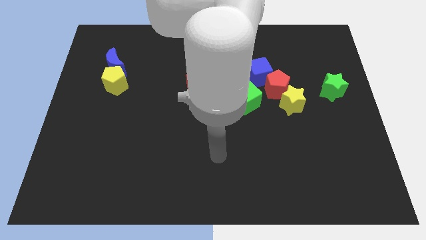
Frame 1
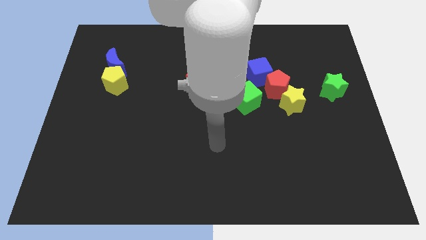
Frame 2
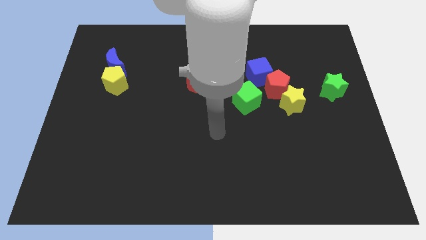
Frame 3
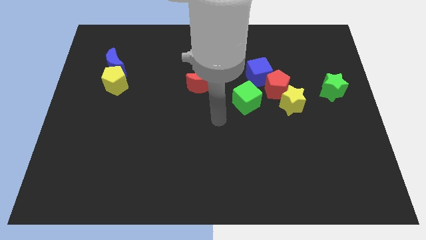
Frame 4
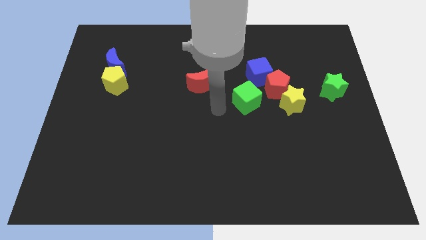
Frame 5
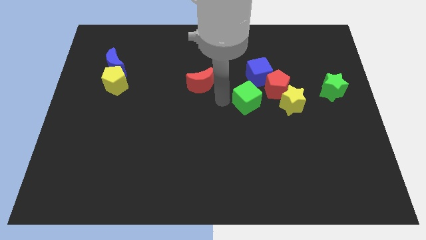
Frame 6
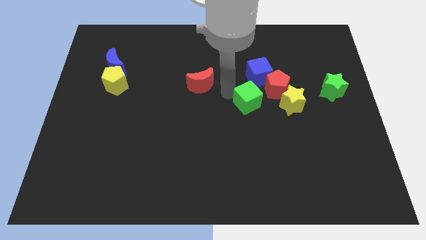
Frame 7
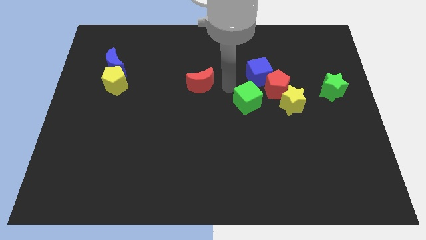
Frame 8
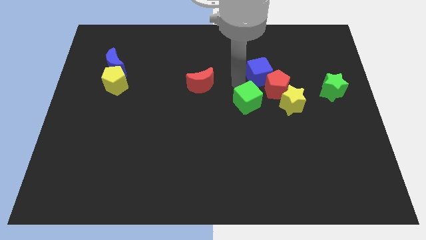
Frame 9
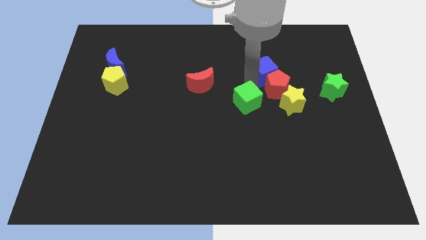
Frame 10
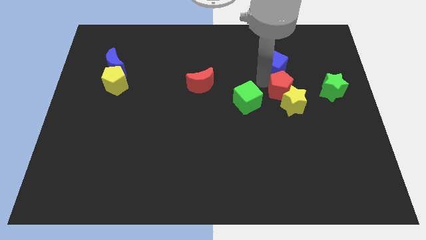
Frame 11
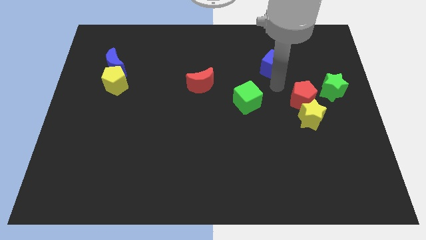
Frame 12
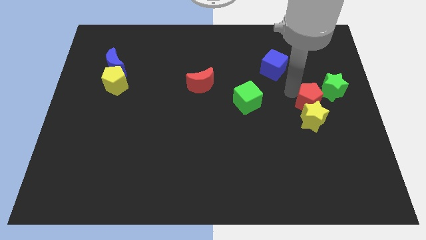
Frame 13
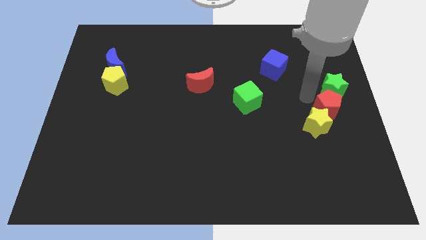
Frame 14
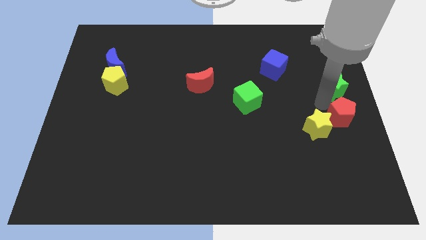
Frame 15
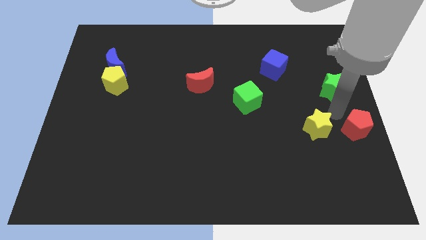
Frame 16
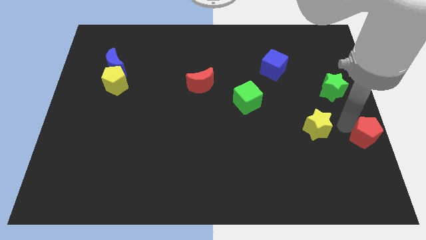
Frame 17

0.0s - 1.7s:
separate the yellow star from the red pentagon

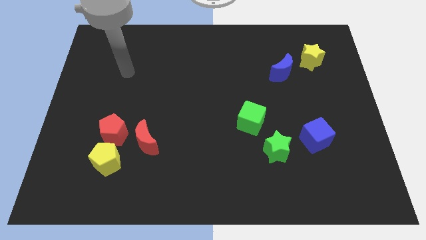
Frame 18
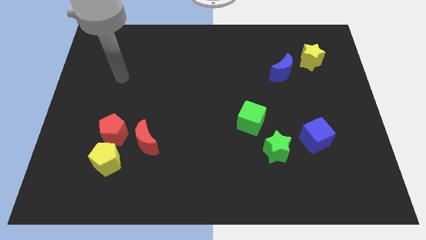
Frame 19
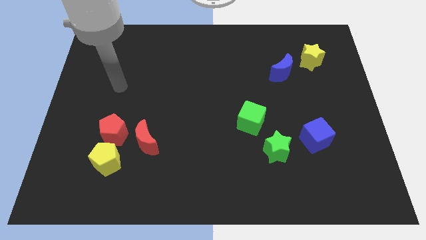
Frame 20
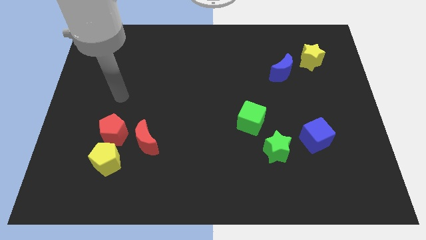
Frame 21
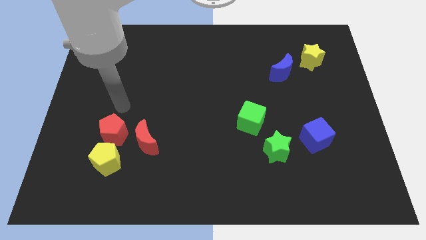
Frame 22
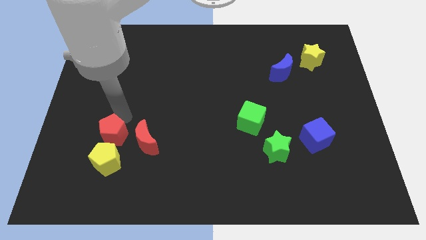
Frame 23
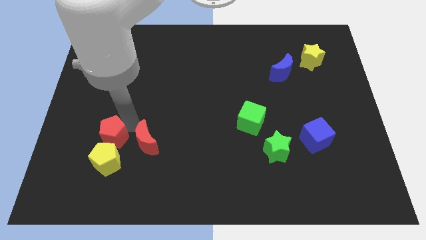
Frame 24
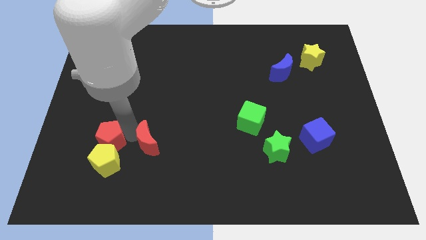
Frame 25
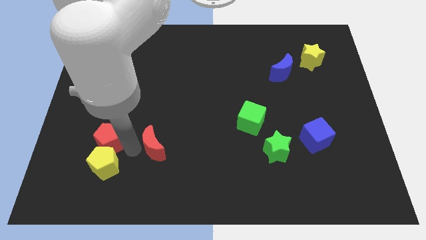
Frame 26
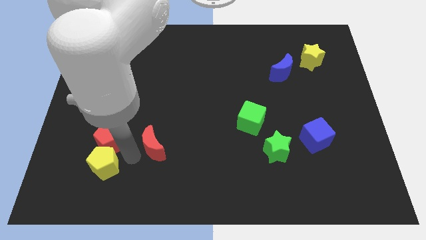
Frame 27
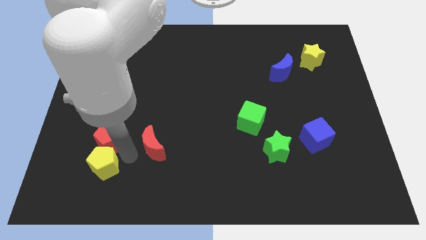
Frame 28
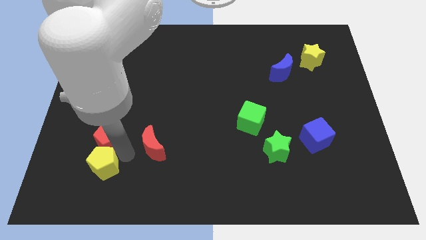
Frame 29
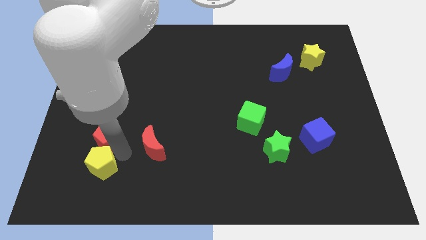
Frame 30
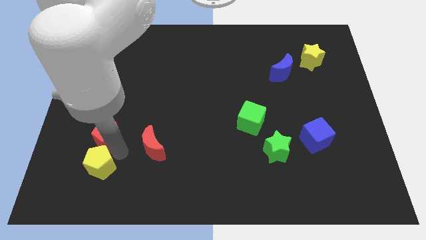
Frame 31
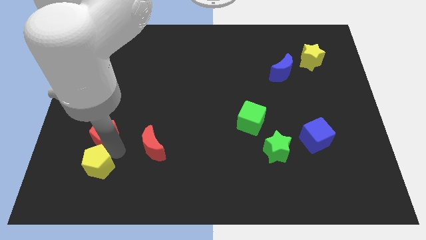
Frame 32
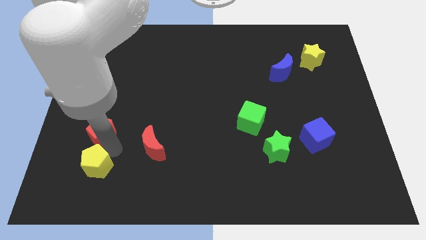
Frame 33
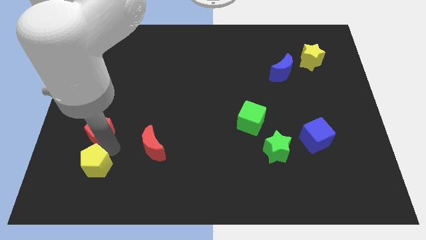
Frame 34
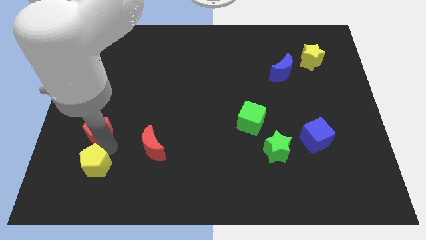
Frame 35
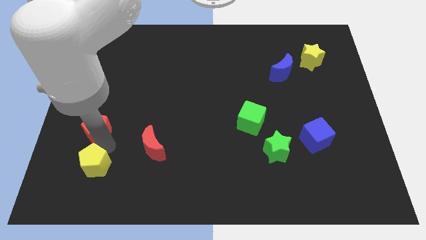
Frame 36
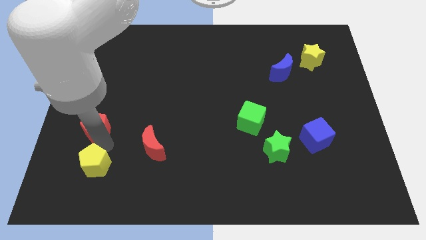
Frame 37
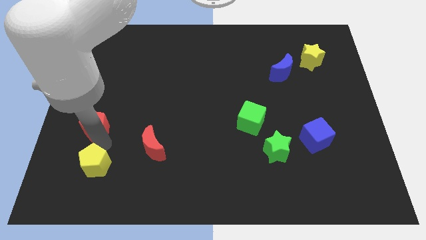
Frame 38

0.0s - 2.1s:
move the red pentagon away from the yellow pentagon and red moon

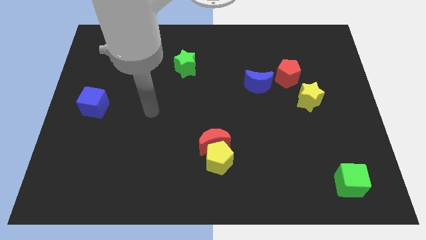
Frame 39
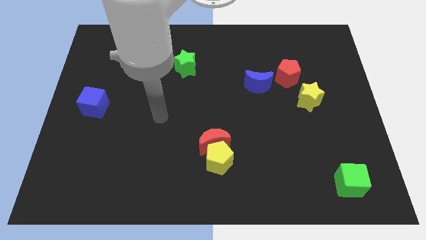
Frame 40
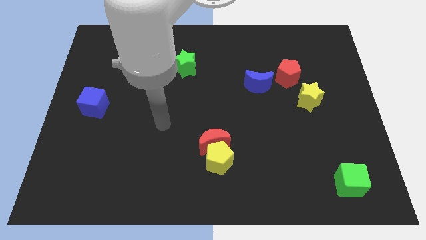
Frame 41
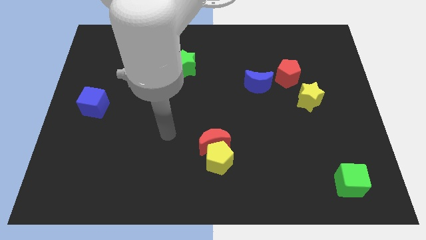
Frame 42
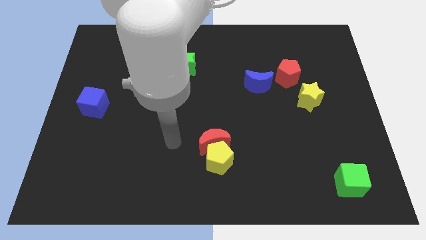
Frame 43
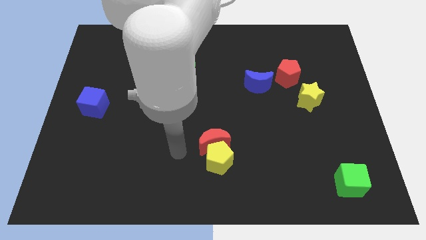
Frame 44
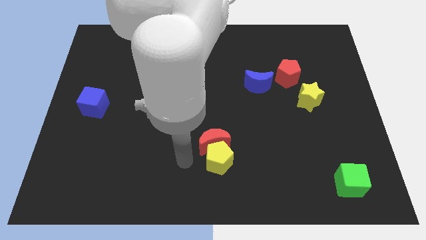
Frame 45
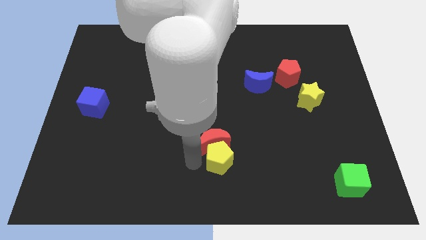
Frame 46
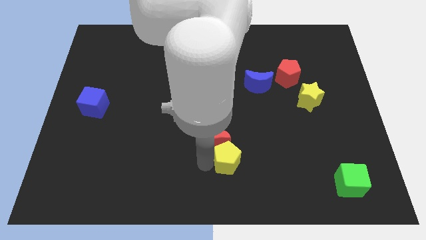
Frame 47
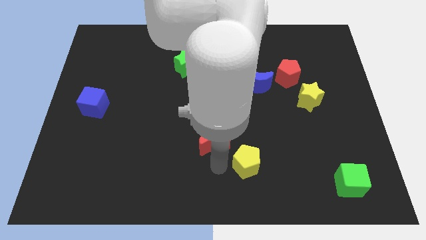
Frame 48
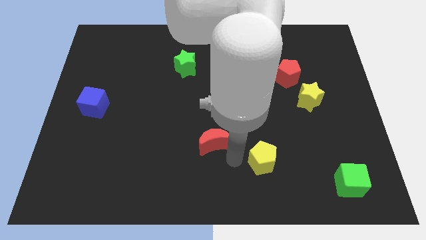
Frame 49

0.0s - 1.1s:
separate the red moon from the yellow pentagon

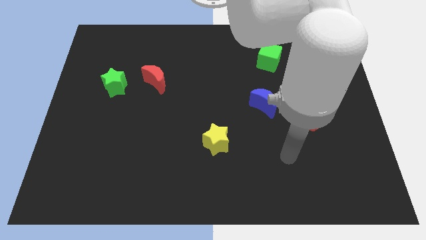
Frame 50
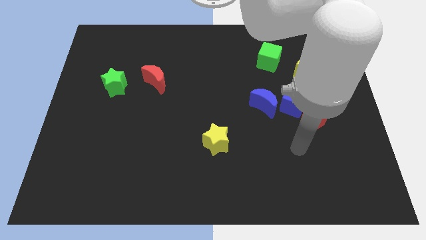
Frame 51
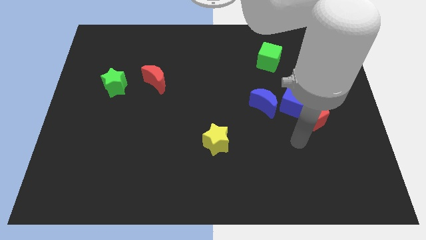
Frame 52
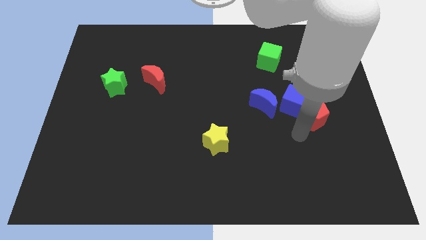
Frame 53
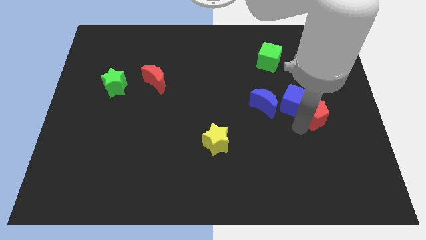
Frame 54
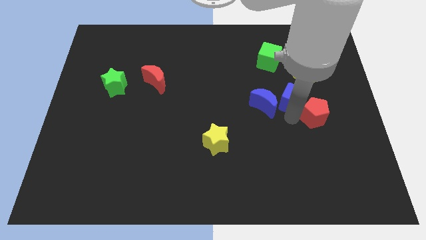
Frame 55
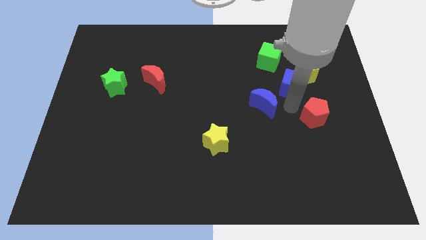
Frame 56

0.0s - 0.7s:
pull the red pentagon apart from the blue cube

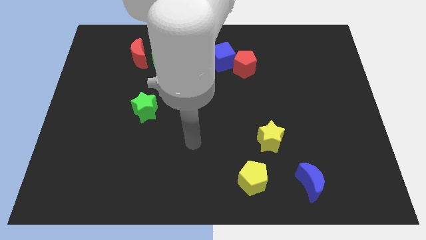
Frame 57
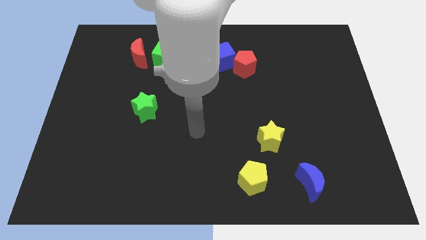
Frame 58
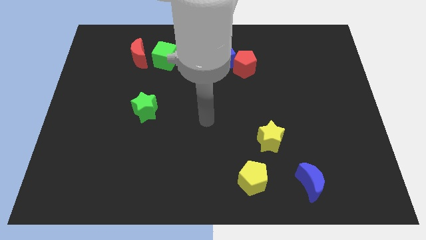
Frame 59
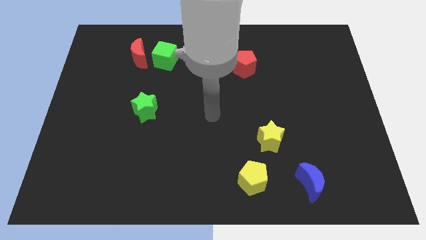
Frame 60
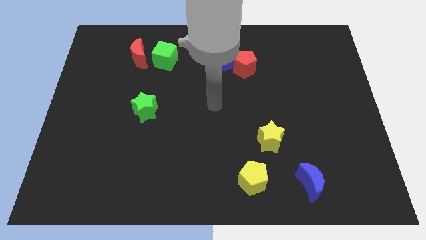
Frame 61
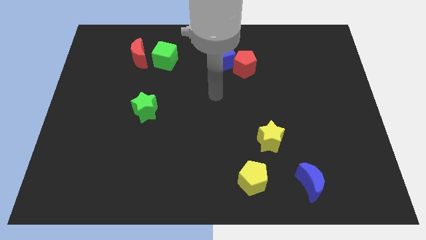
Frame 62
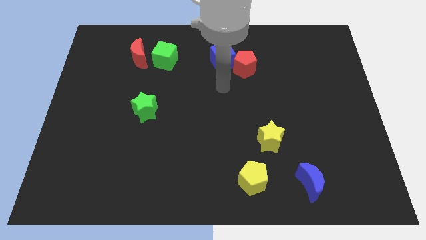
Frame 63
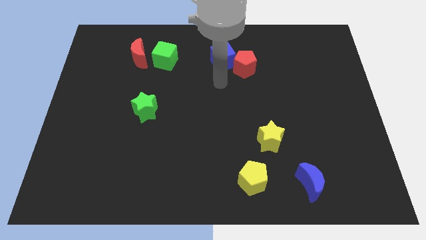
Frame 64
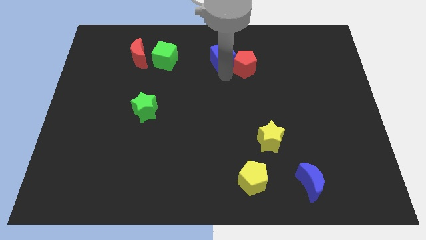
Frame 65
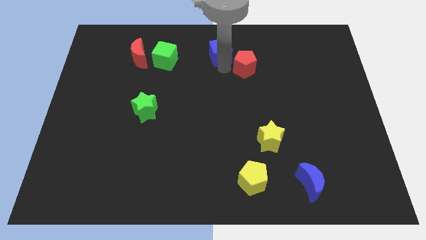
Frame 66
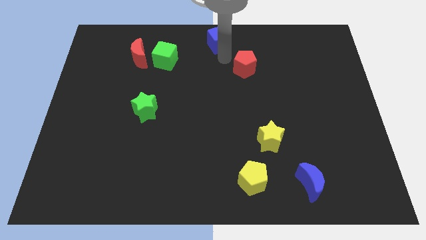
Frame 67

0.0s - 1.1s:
separate the red pentagon from the blue cube

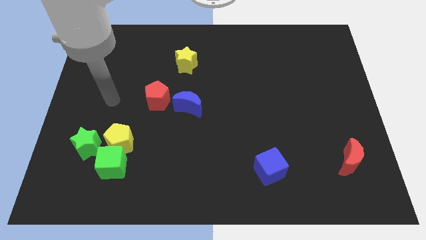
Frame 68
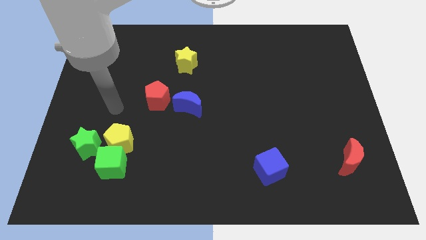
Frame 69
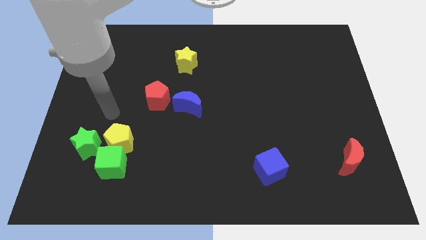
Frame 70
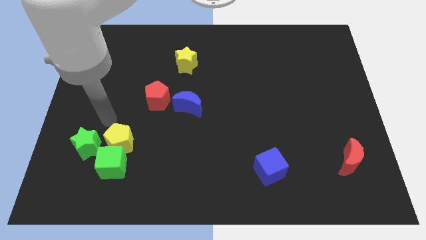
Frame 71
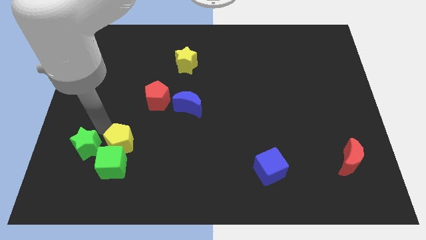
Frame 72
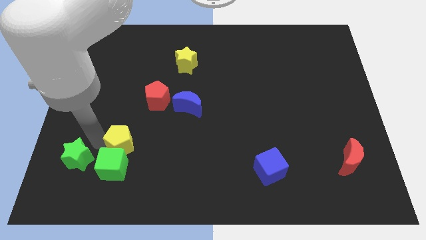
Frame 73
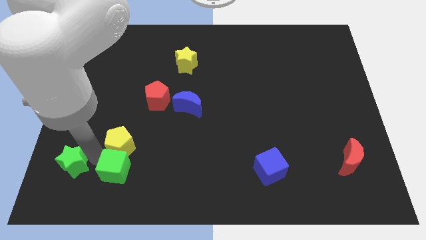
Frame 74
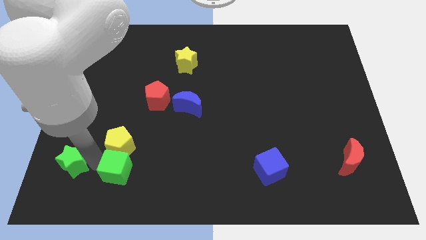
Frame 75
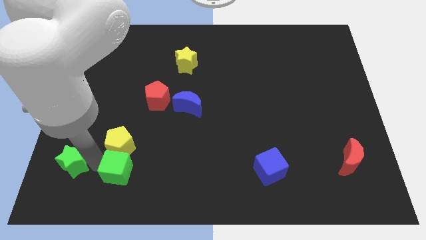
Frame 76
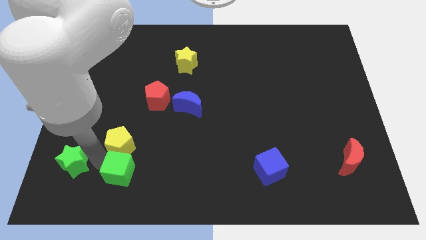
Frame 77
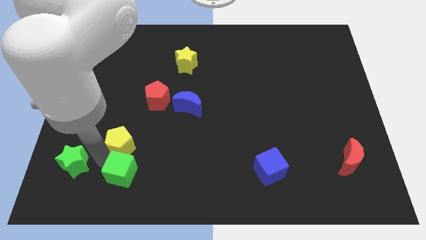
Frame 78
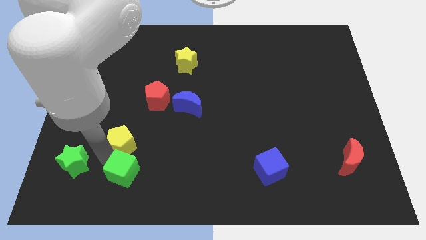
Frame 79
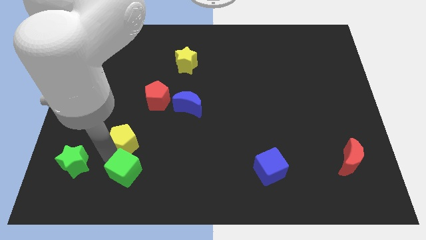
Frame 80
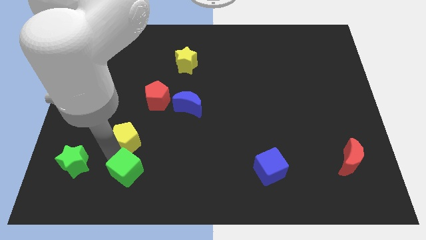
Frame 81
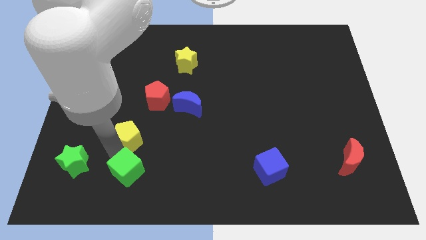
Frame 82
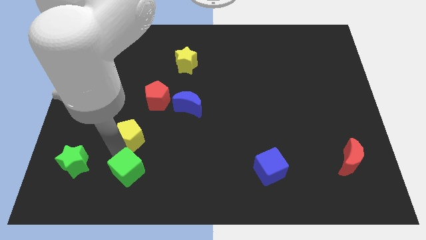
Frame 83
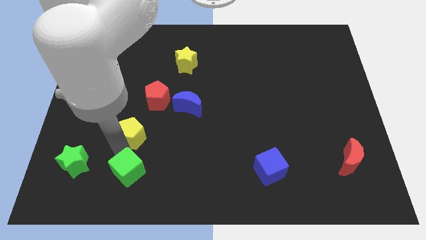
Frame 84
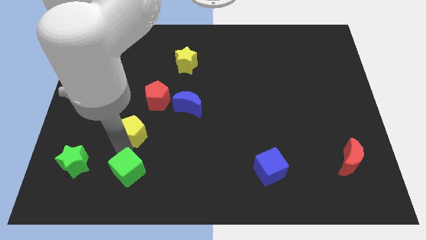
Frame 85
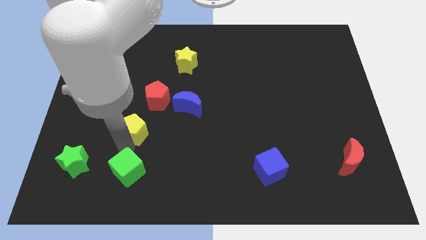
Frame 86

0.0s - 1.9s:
separate the yellow pentagon from the green cube and green star

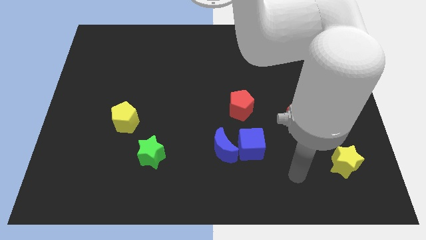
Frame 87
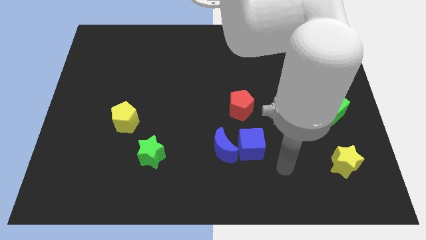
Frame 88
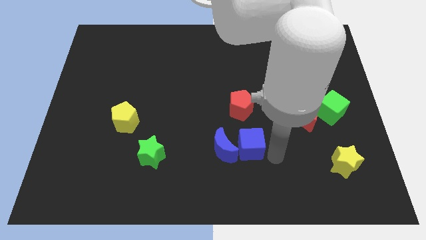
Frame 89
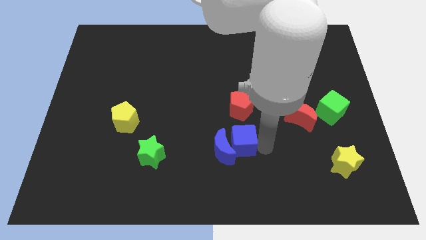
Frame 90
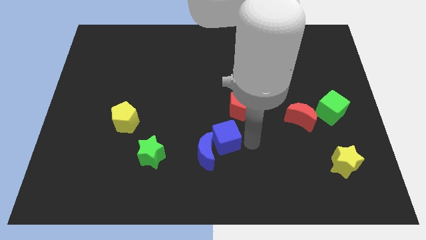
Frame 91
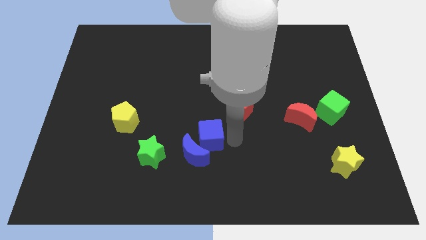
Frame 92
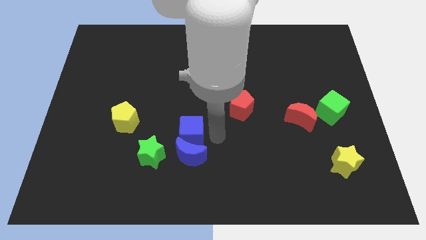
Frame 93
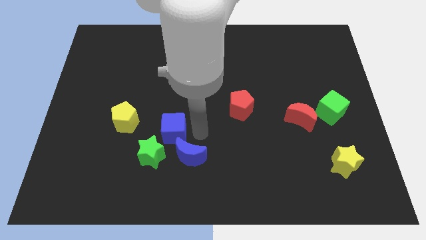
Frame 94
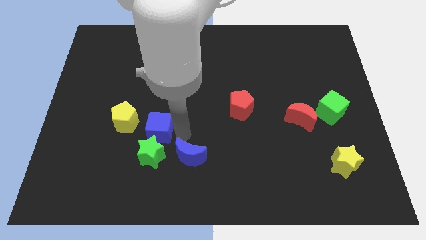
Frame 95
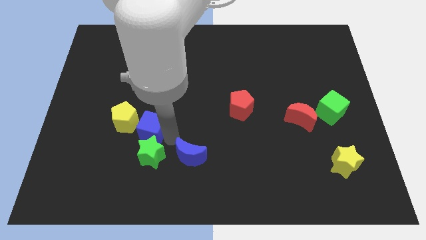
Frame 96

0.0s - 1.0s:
pull the blue moon apart from the blue cube
